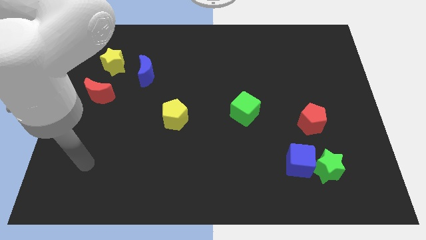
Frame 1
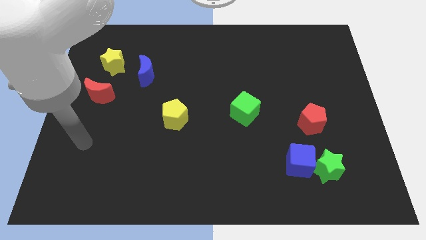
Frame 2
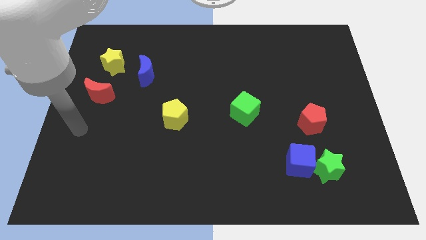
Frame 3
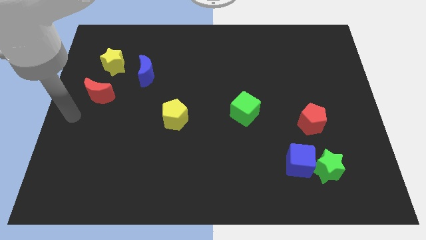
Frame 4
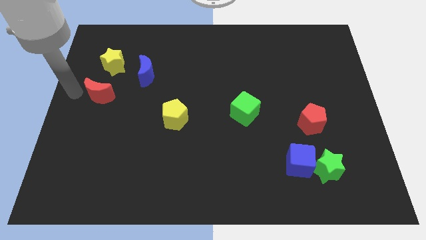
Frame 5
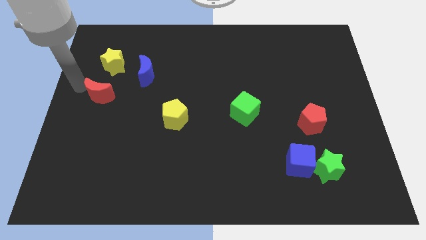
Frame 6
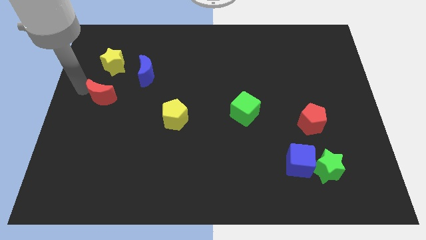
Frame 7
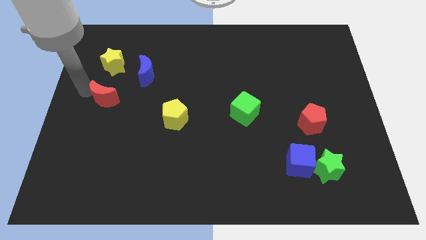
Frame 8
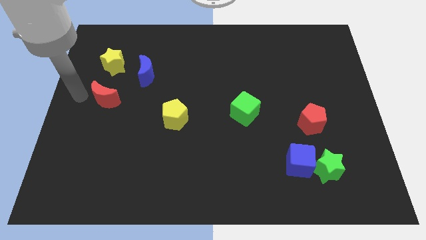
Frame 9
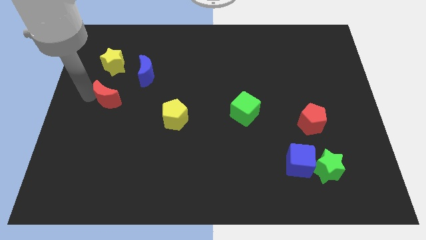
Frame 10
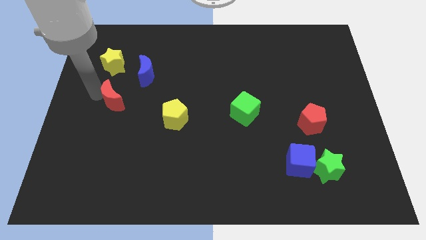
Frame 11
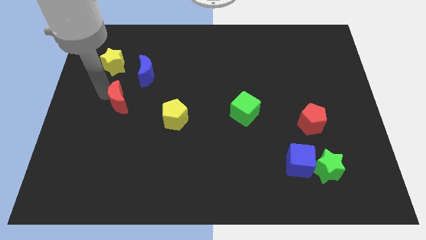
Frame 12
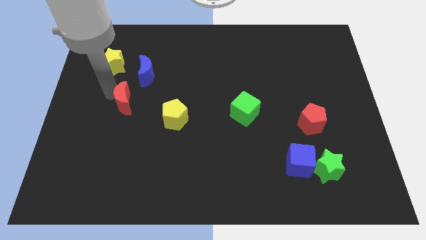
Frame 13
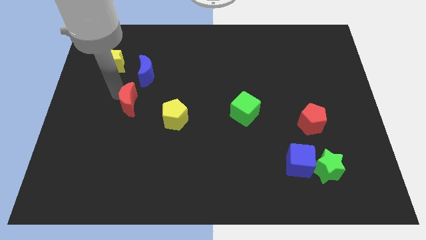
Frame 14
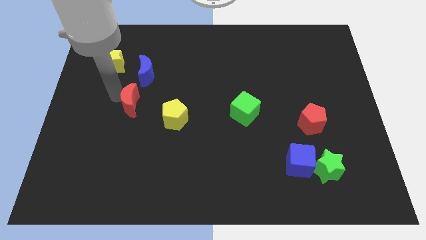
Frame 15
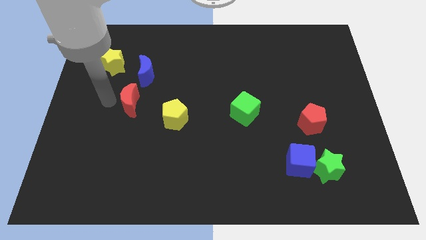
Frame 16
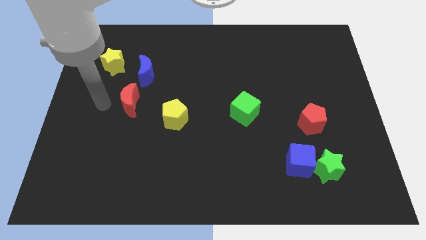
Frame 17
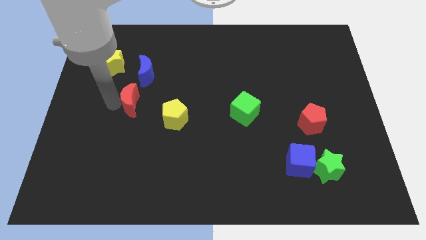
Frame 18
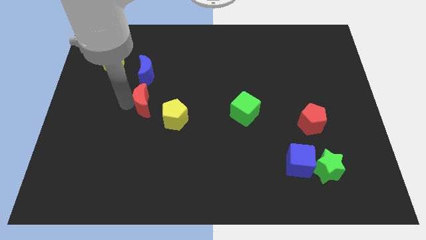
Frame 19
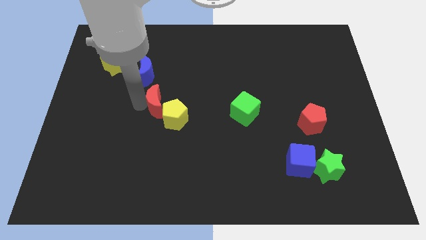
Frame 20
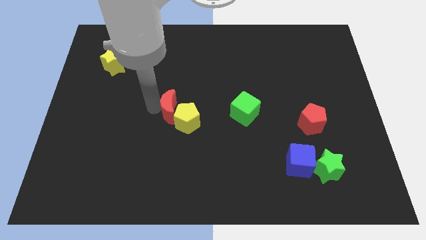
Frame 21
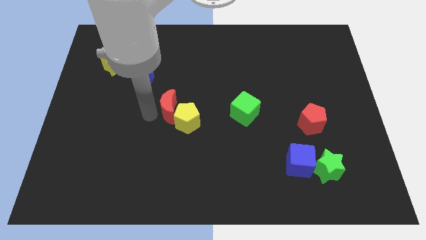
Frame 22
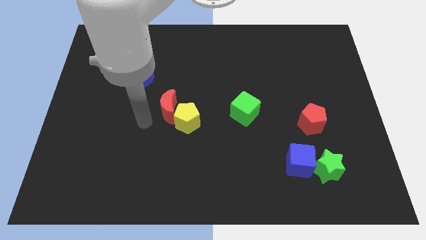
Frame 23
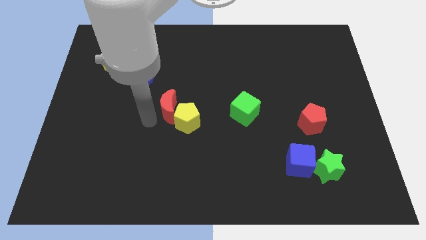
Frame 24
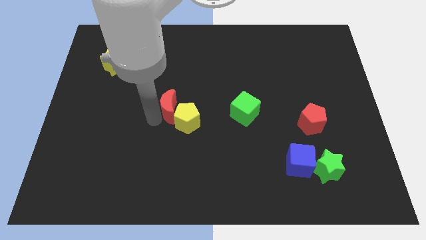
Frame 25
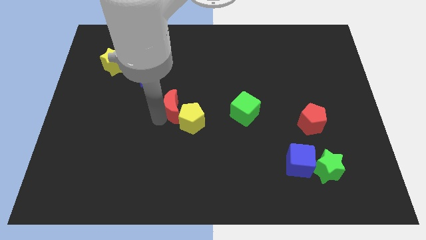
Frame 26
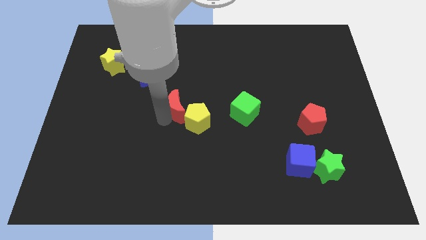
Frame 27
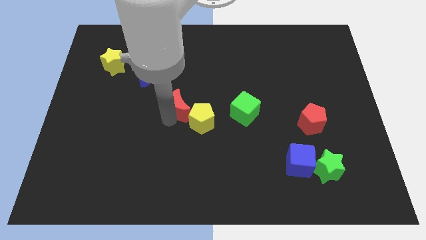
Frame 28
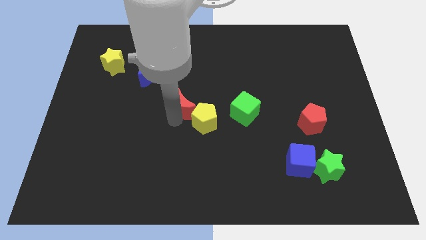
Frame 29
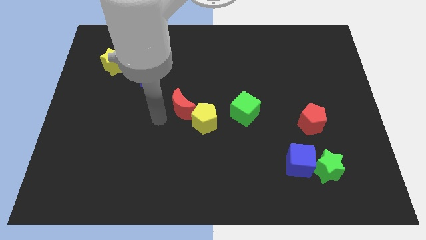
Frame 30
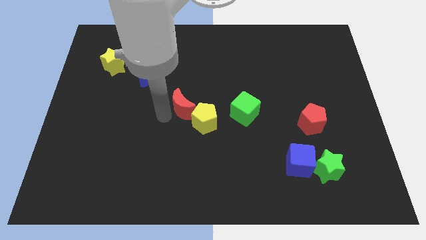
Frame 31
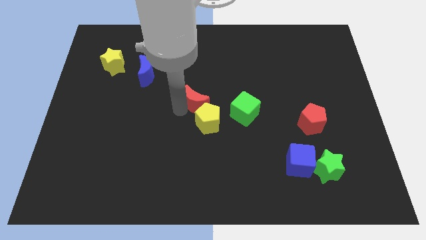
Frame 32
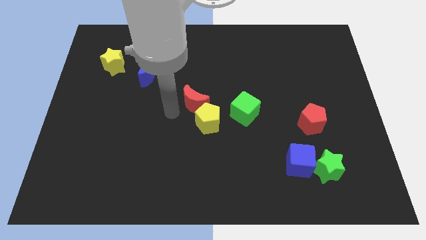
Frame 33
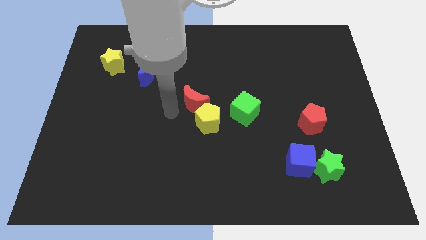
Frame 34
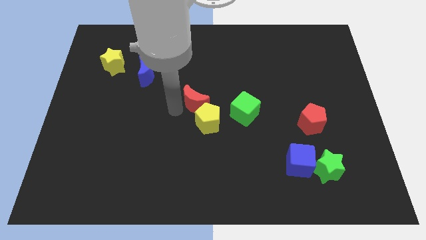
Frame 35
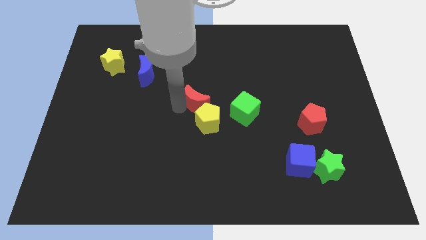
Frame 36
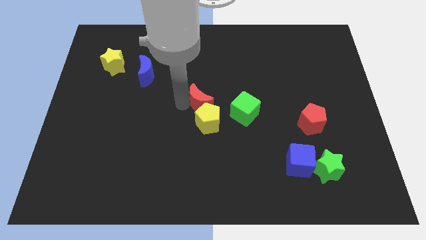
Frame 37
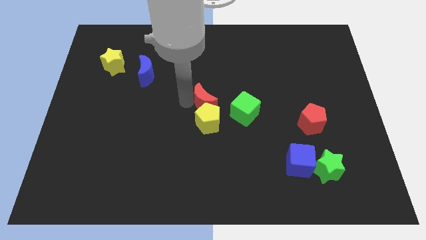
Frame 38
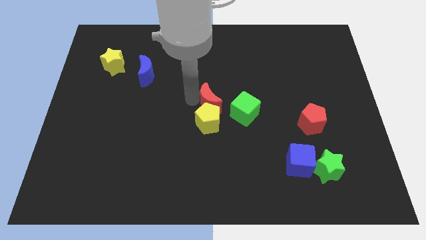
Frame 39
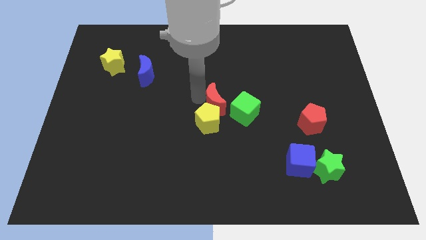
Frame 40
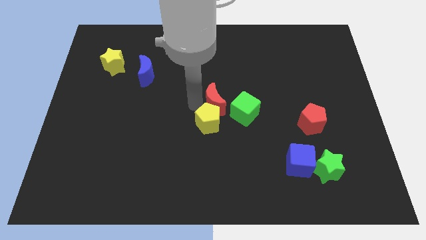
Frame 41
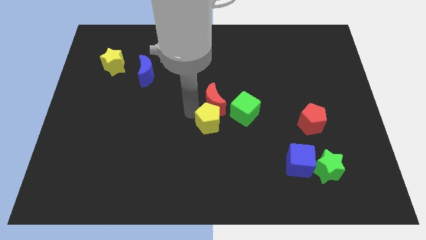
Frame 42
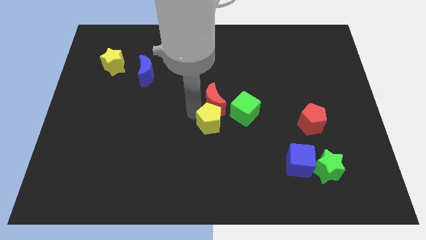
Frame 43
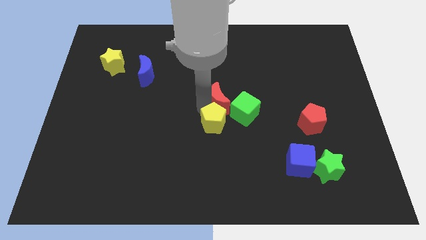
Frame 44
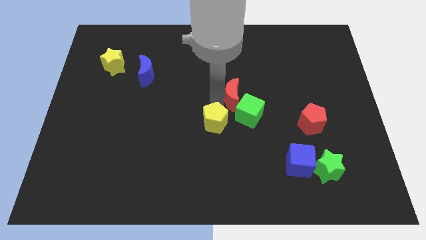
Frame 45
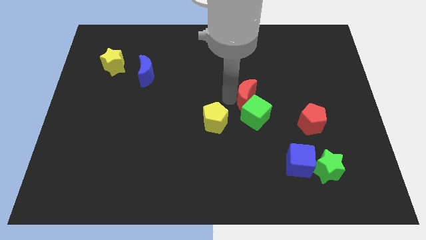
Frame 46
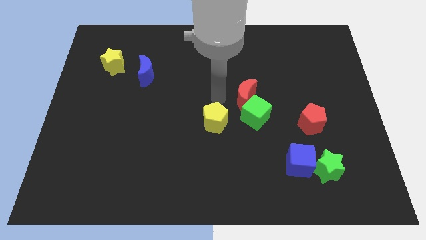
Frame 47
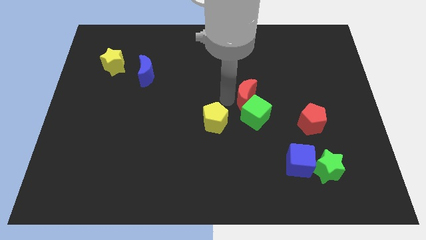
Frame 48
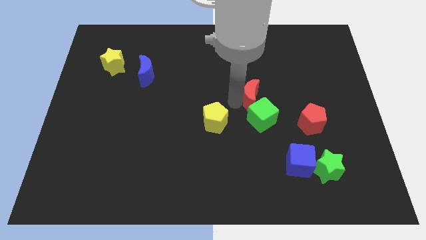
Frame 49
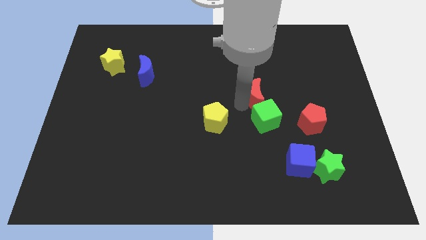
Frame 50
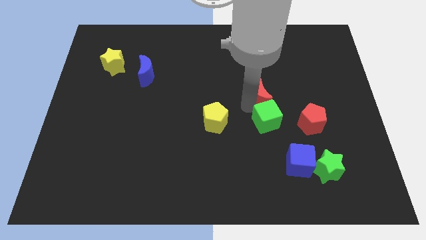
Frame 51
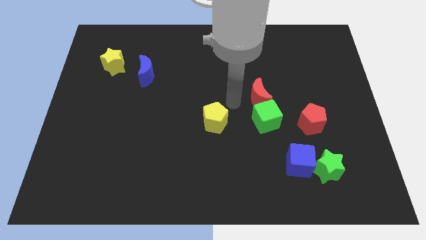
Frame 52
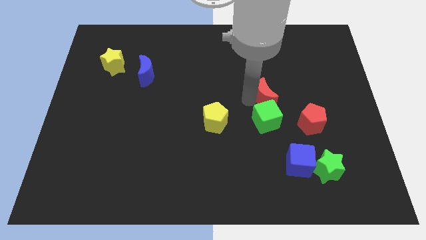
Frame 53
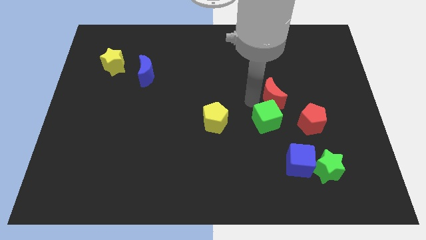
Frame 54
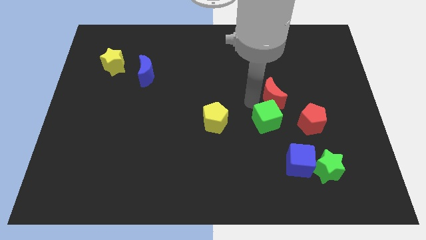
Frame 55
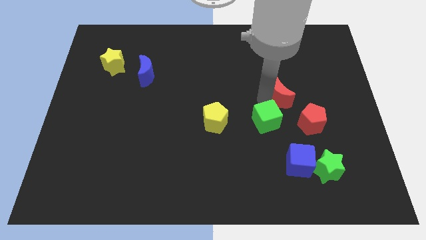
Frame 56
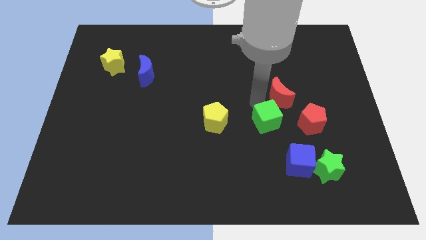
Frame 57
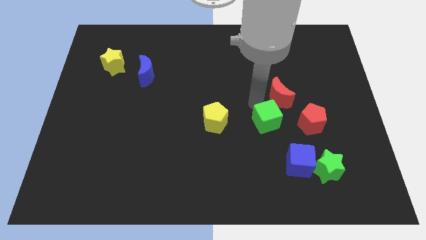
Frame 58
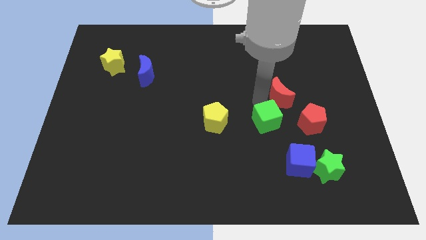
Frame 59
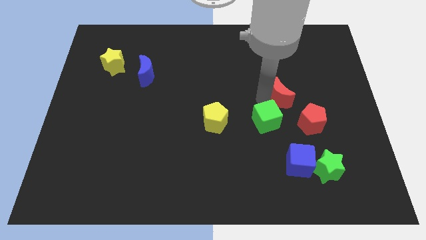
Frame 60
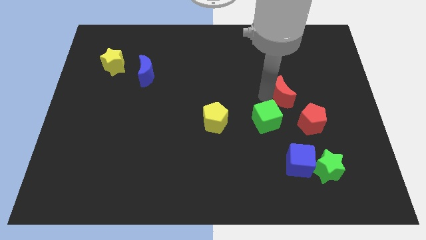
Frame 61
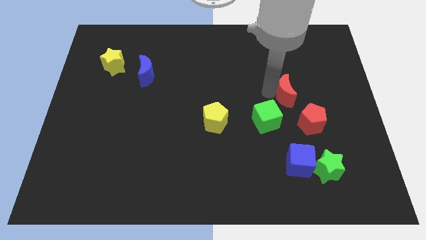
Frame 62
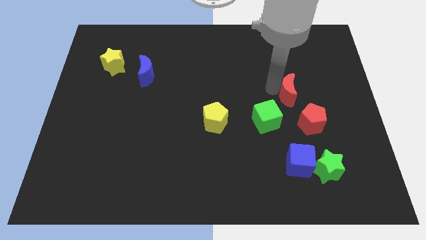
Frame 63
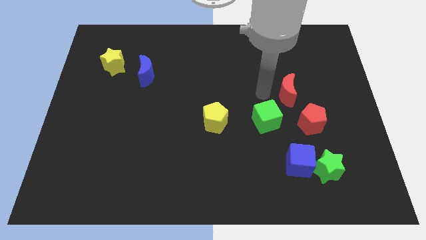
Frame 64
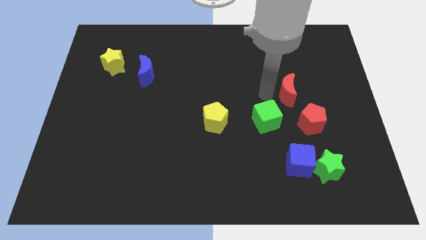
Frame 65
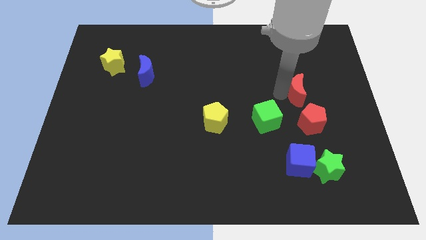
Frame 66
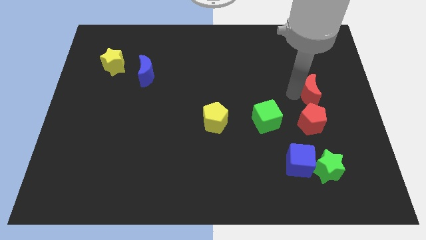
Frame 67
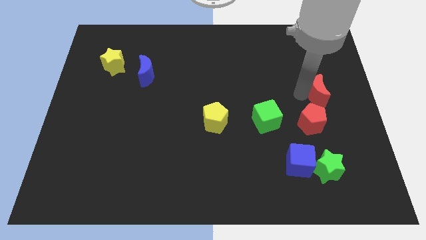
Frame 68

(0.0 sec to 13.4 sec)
put the red moon to the right side of the board
